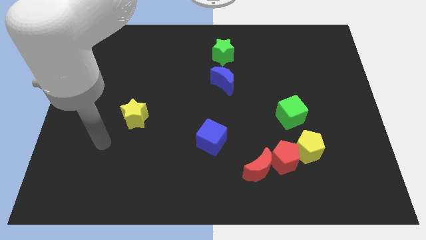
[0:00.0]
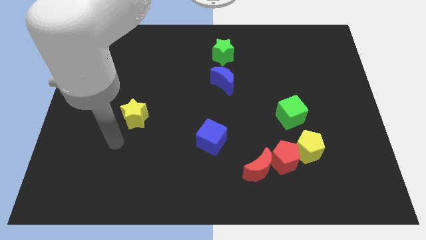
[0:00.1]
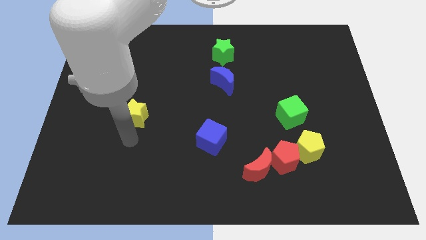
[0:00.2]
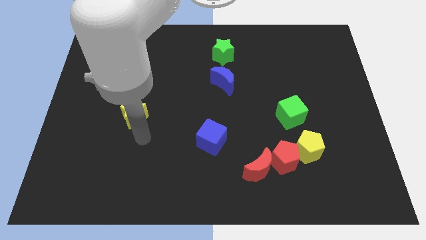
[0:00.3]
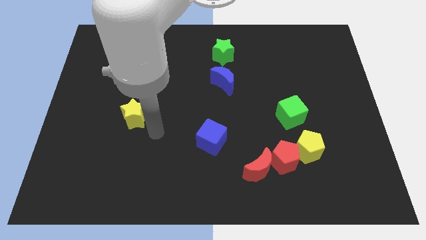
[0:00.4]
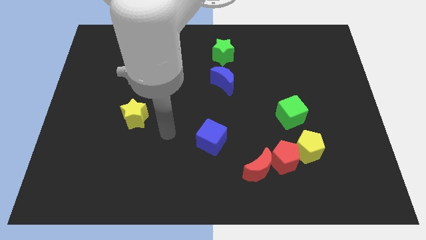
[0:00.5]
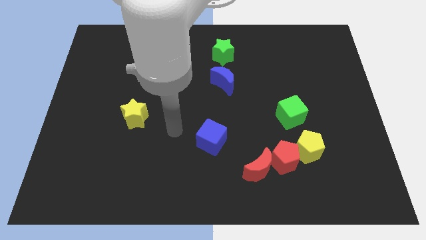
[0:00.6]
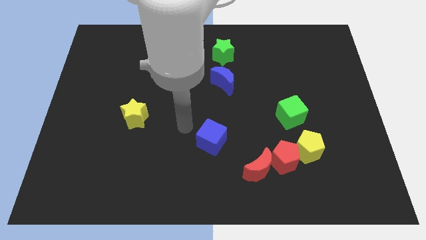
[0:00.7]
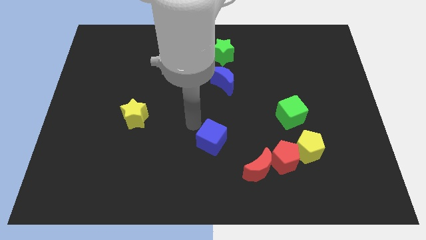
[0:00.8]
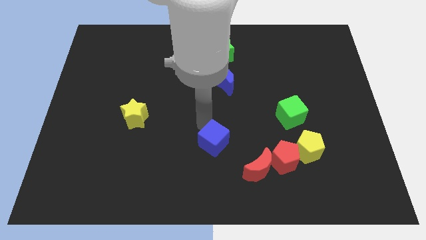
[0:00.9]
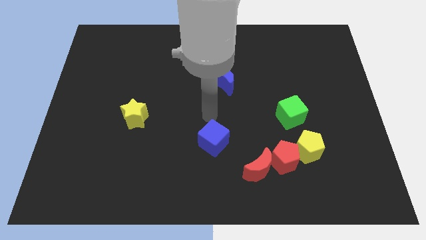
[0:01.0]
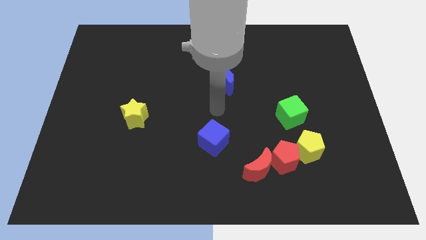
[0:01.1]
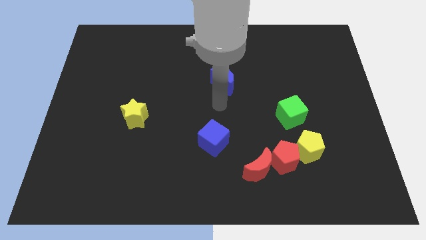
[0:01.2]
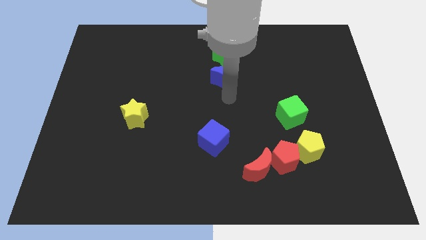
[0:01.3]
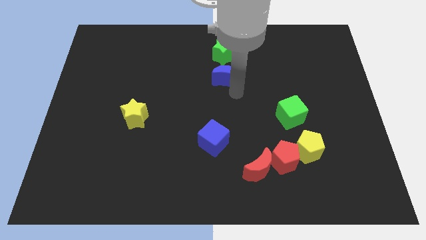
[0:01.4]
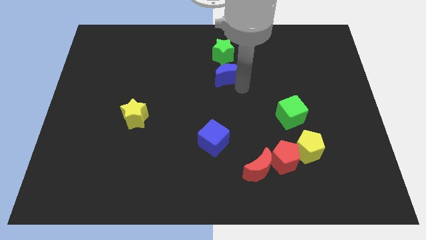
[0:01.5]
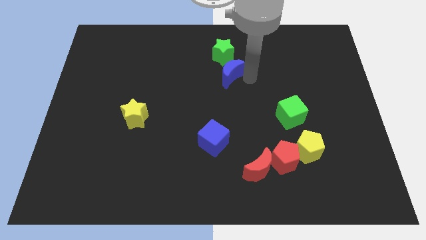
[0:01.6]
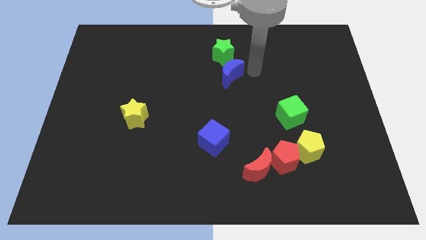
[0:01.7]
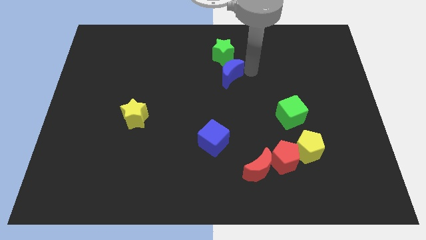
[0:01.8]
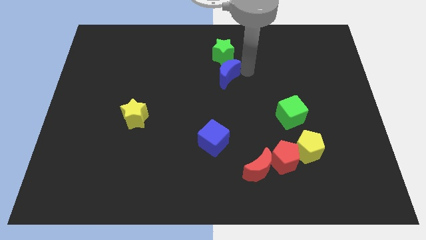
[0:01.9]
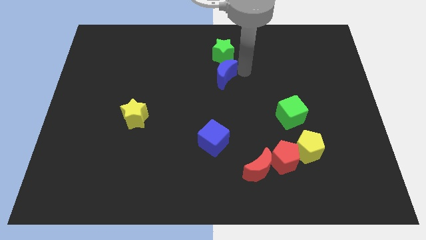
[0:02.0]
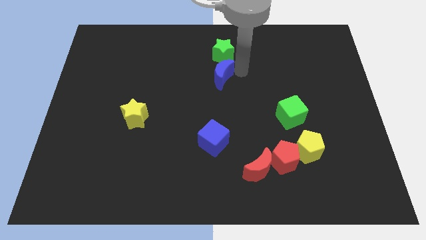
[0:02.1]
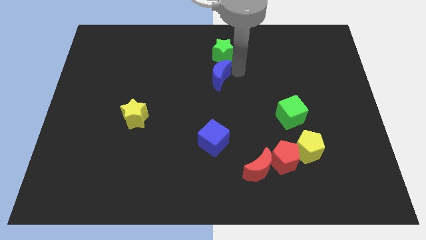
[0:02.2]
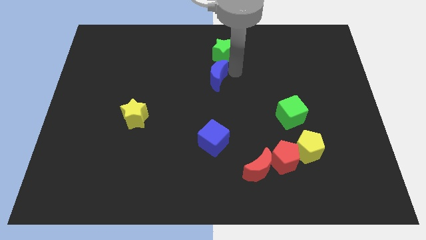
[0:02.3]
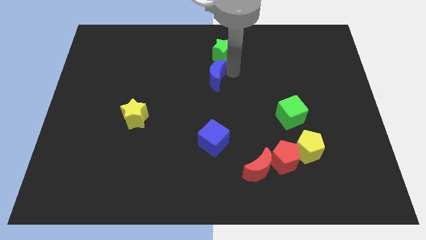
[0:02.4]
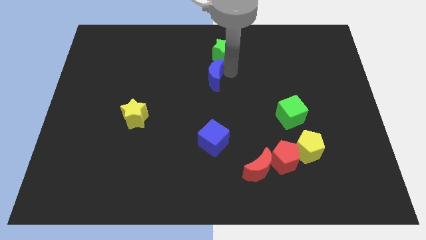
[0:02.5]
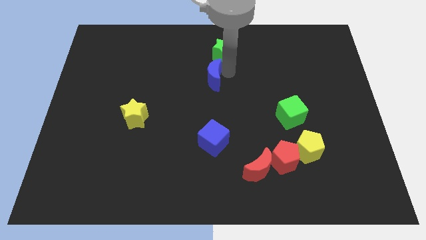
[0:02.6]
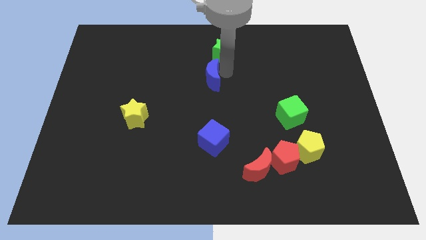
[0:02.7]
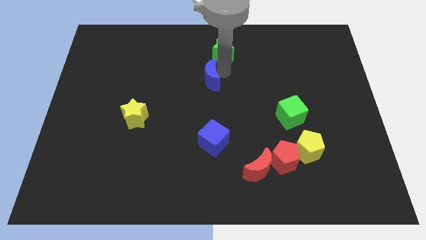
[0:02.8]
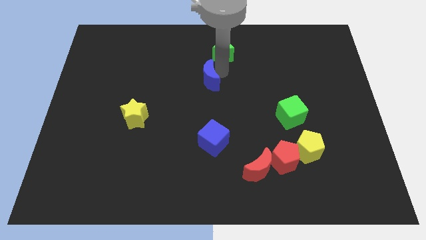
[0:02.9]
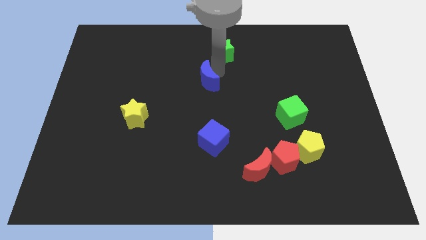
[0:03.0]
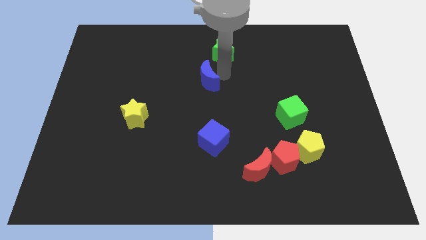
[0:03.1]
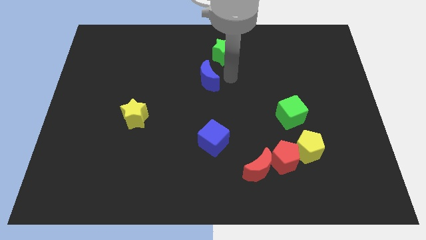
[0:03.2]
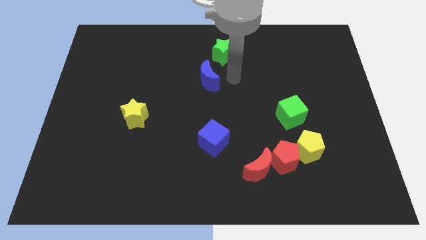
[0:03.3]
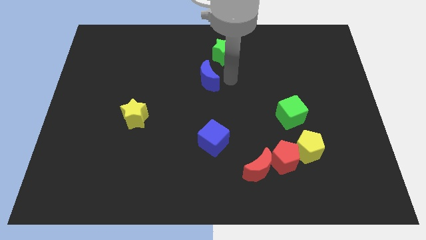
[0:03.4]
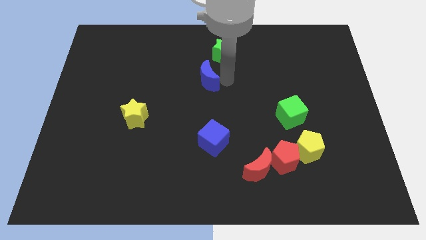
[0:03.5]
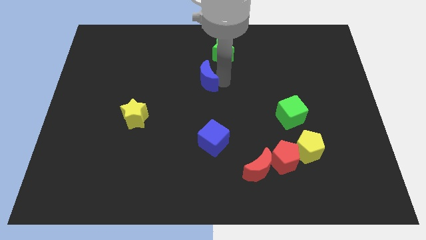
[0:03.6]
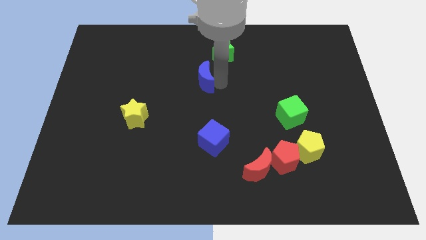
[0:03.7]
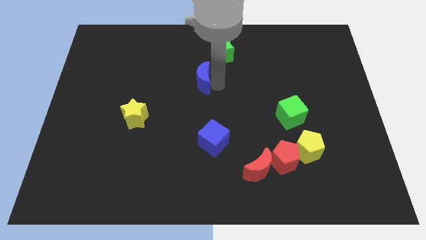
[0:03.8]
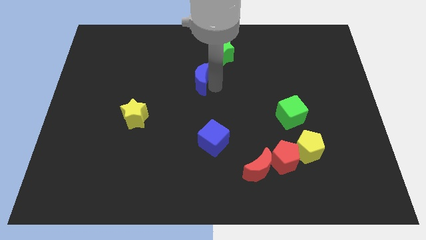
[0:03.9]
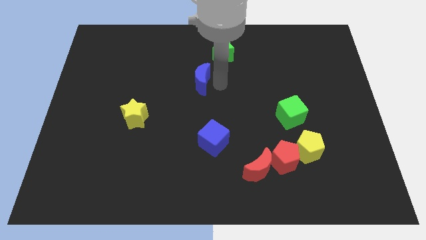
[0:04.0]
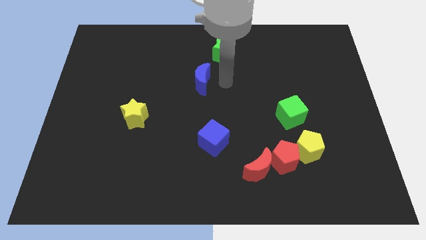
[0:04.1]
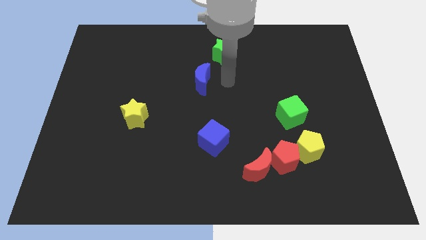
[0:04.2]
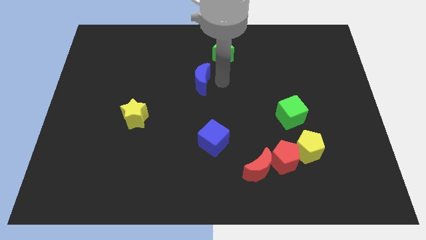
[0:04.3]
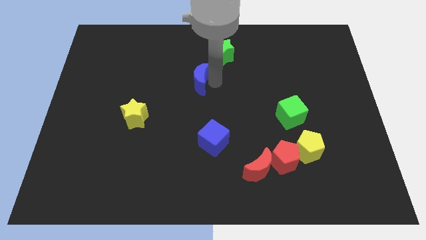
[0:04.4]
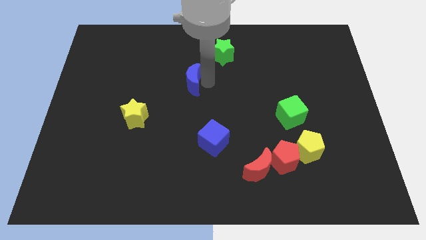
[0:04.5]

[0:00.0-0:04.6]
slightly move the blue moon left

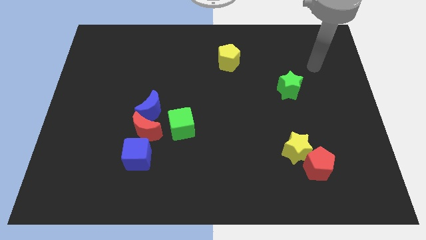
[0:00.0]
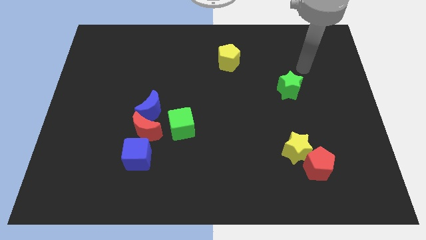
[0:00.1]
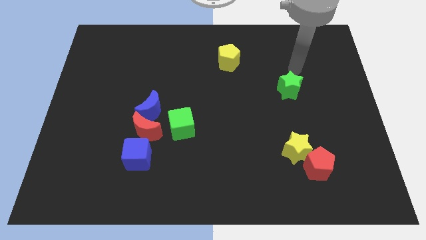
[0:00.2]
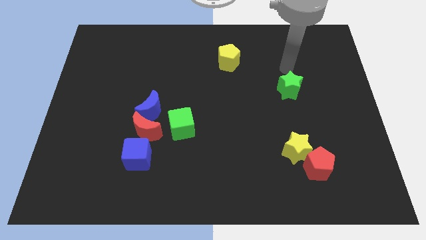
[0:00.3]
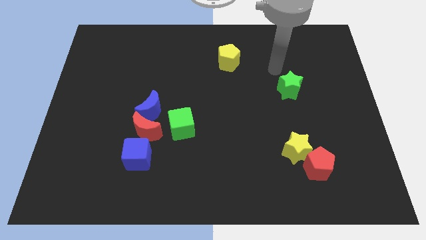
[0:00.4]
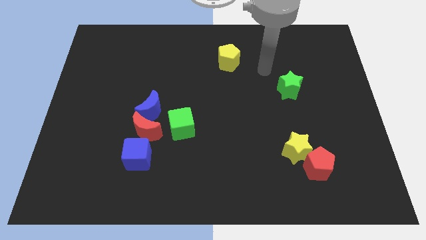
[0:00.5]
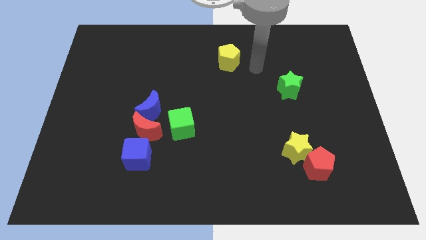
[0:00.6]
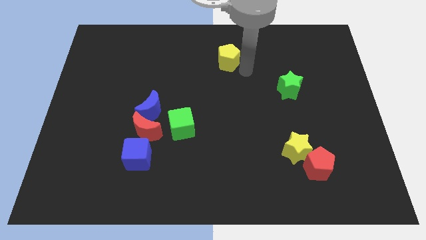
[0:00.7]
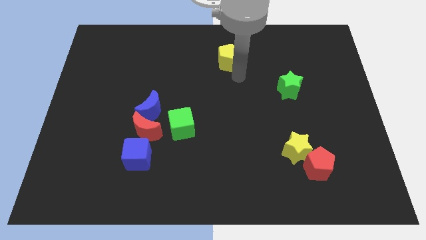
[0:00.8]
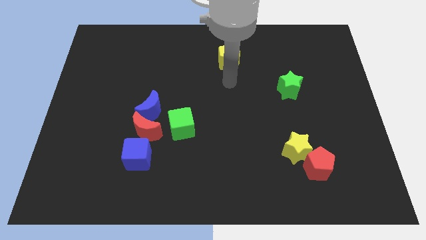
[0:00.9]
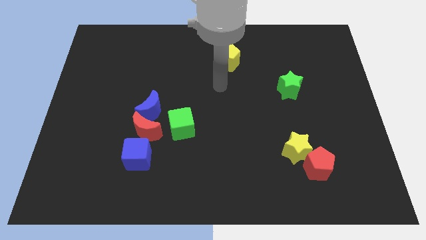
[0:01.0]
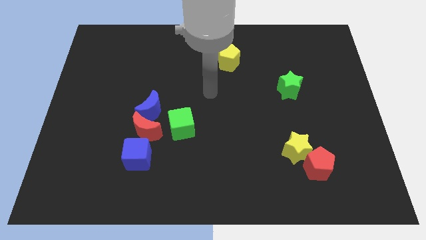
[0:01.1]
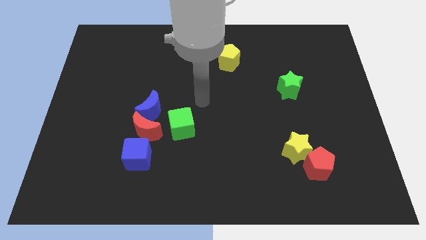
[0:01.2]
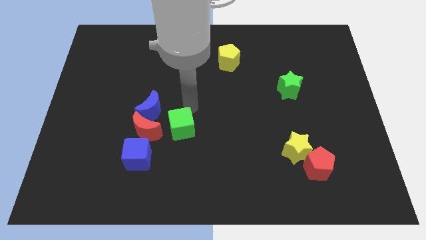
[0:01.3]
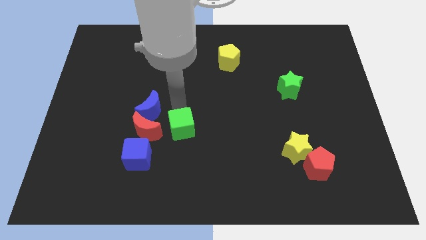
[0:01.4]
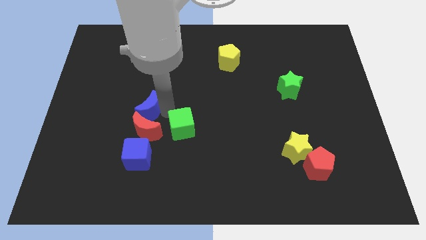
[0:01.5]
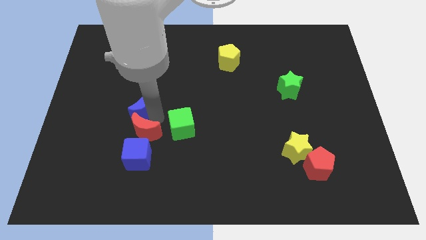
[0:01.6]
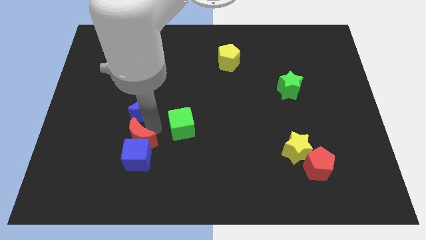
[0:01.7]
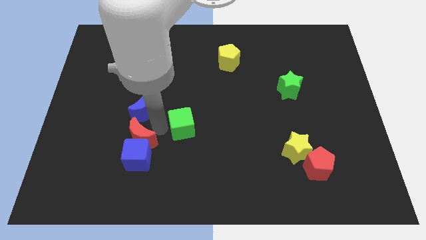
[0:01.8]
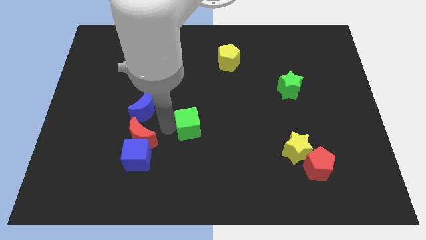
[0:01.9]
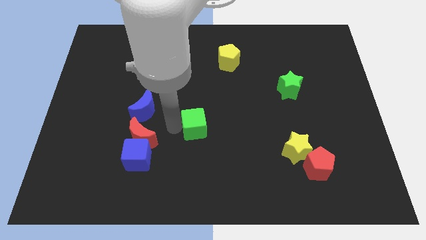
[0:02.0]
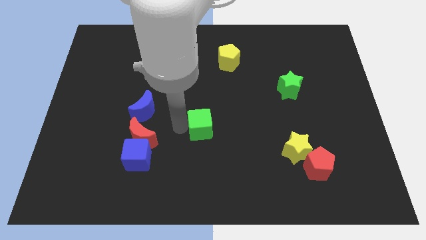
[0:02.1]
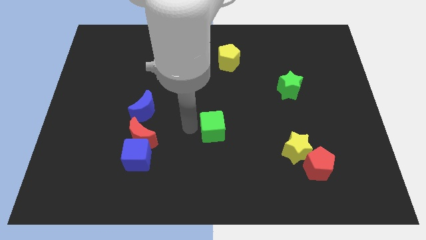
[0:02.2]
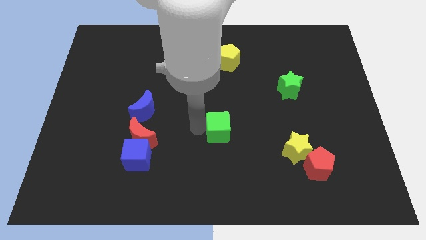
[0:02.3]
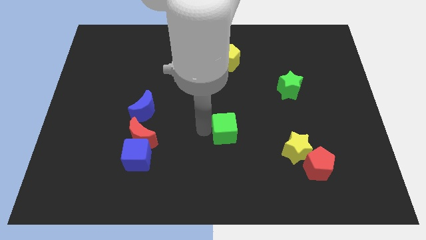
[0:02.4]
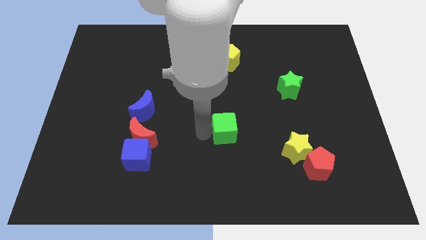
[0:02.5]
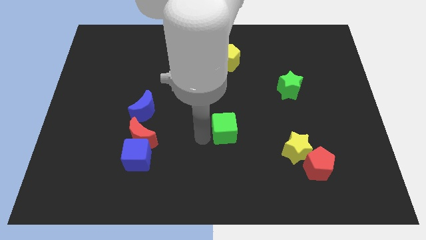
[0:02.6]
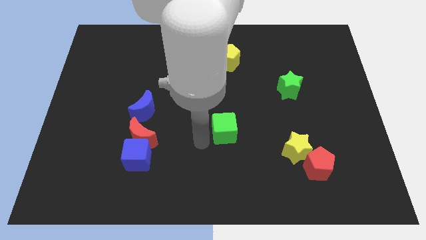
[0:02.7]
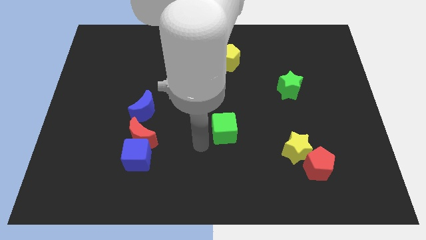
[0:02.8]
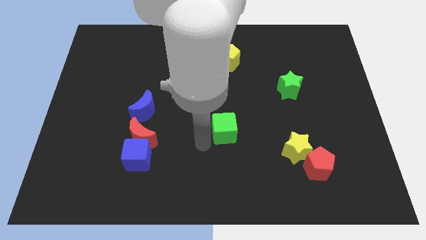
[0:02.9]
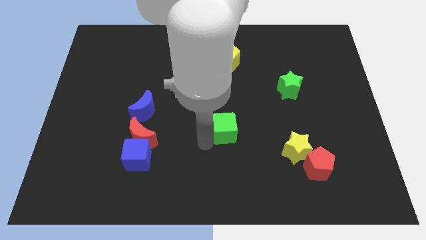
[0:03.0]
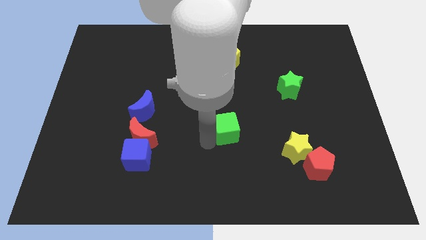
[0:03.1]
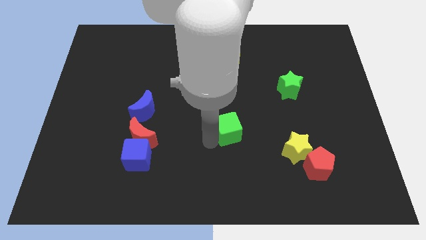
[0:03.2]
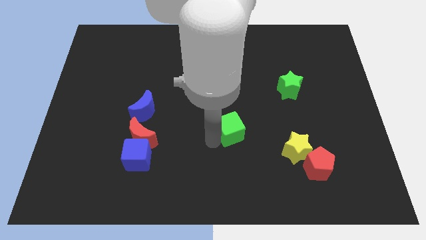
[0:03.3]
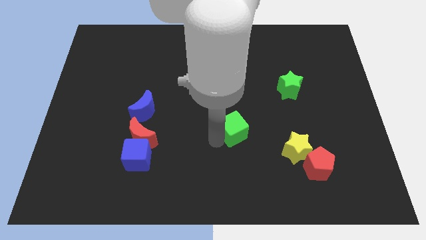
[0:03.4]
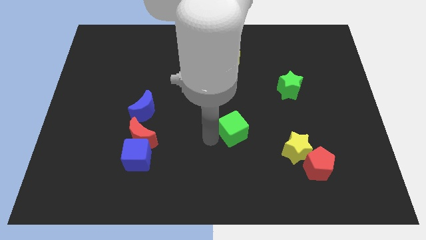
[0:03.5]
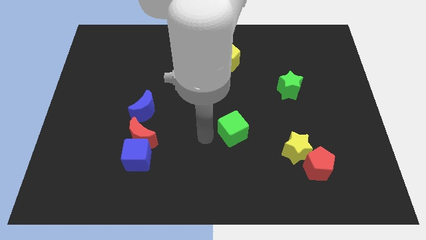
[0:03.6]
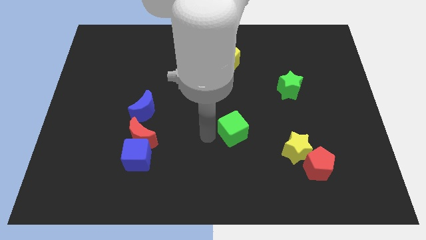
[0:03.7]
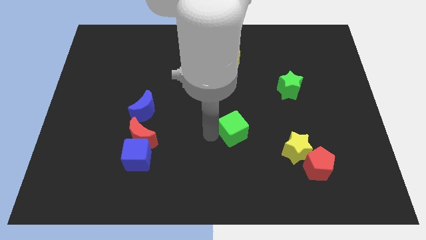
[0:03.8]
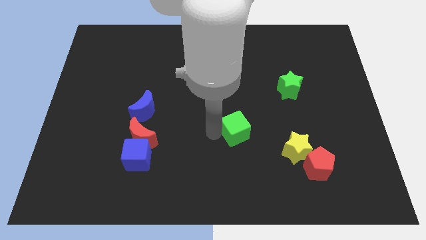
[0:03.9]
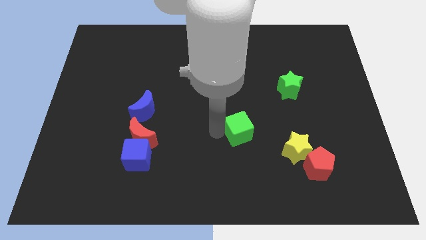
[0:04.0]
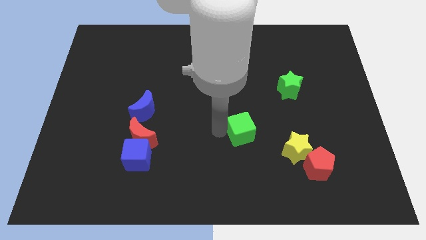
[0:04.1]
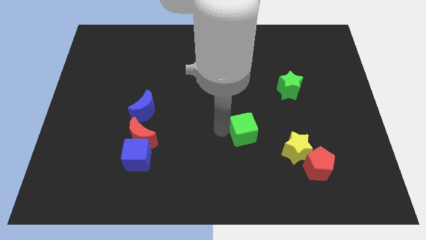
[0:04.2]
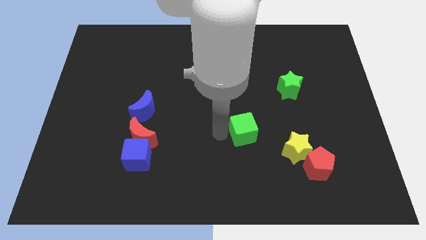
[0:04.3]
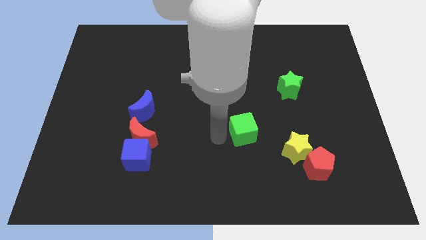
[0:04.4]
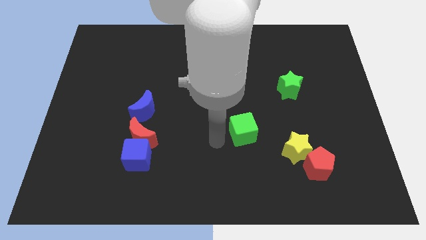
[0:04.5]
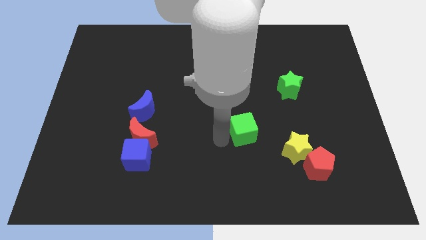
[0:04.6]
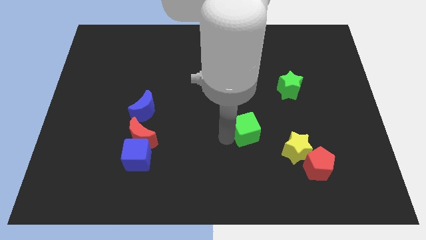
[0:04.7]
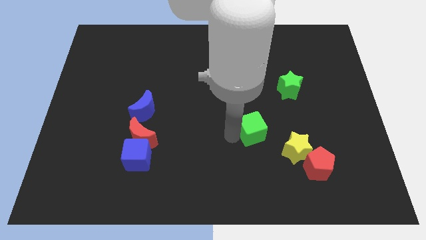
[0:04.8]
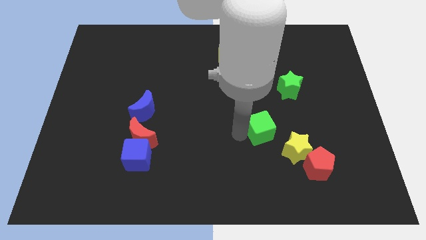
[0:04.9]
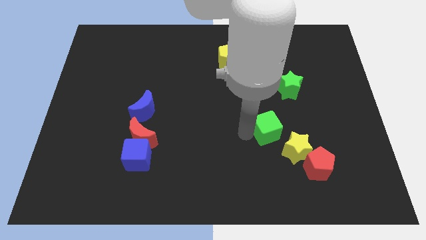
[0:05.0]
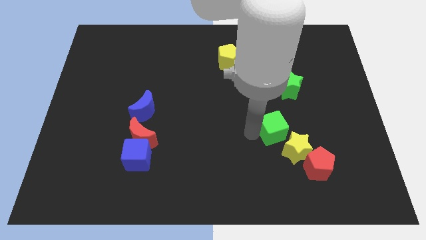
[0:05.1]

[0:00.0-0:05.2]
move the green cube to the right
